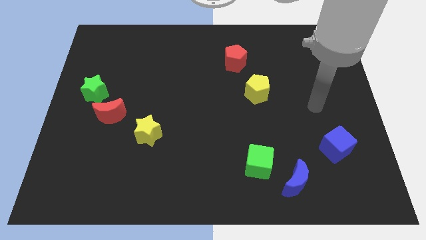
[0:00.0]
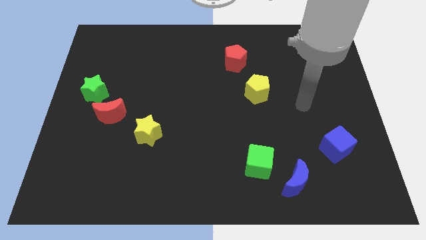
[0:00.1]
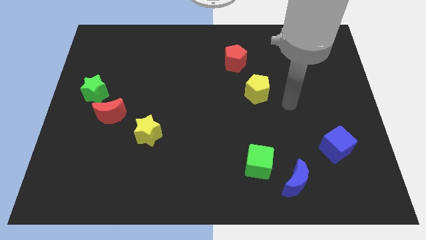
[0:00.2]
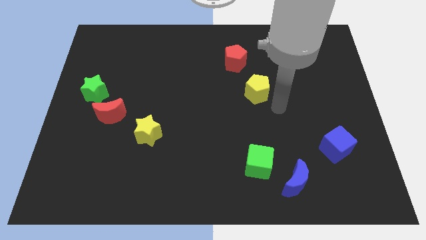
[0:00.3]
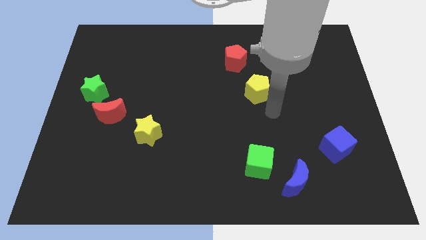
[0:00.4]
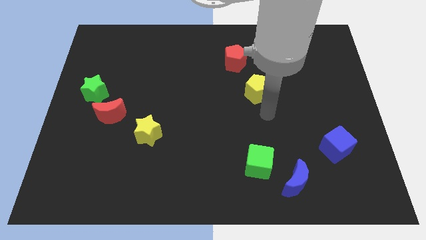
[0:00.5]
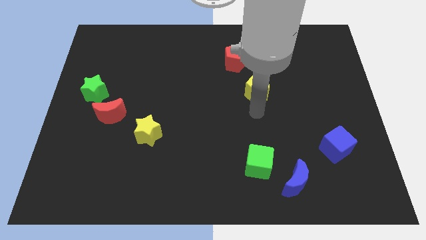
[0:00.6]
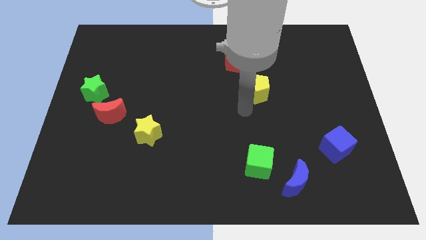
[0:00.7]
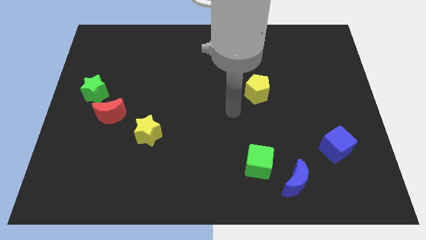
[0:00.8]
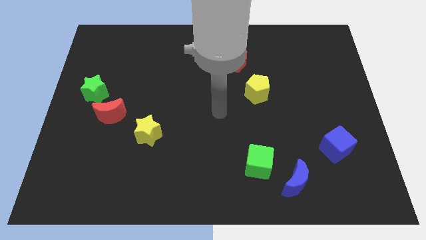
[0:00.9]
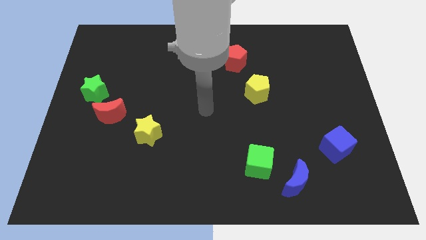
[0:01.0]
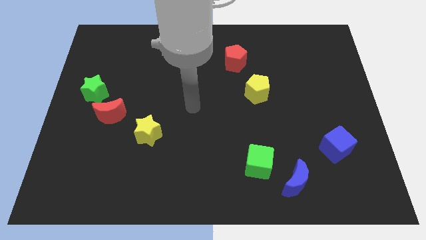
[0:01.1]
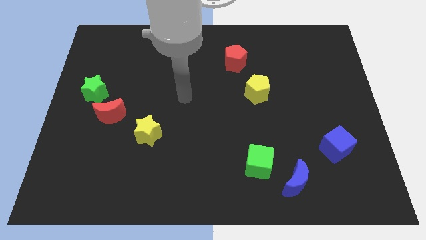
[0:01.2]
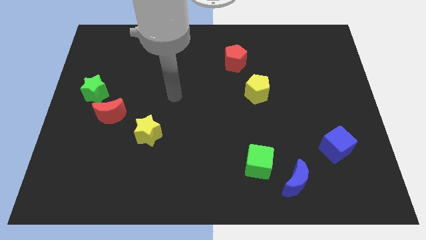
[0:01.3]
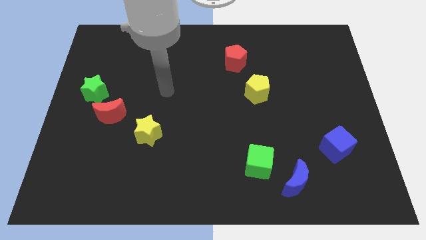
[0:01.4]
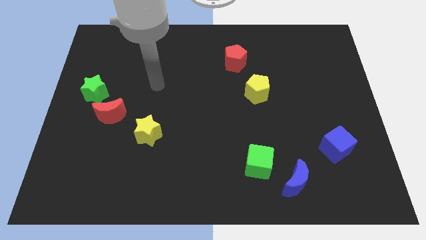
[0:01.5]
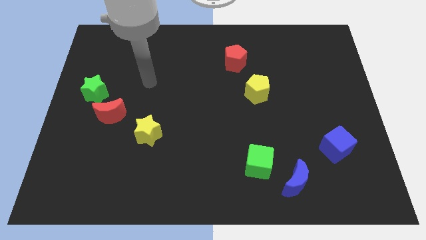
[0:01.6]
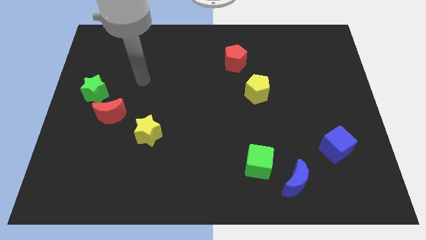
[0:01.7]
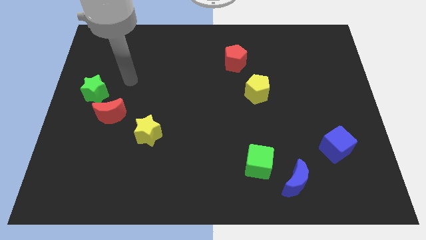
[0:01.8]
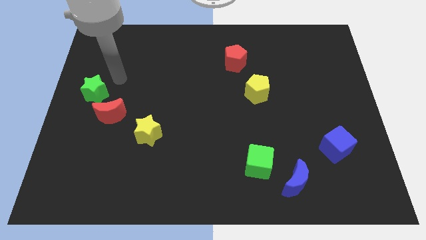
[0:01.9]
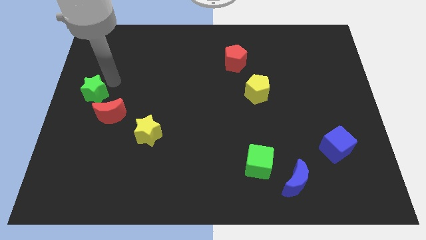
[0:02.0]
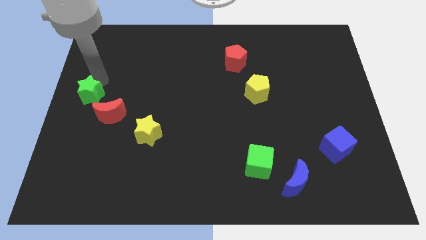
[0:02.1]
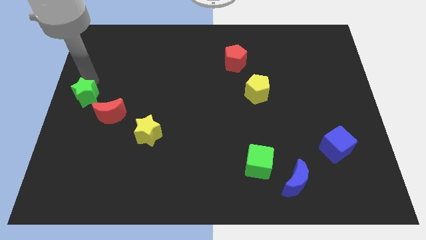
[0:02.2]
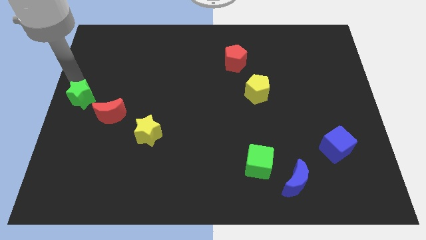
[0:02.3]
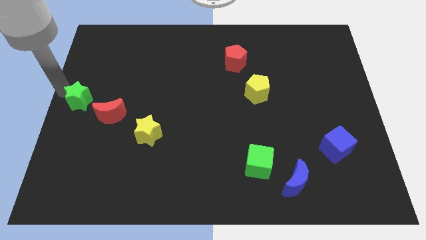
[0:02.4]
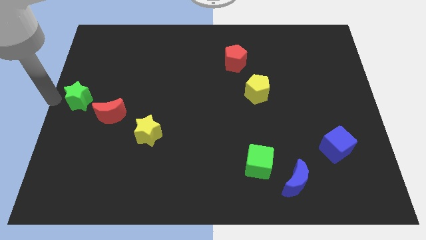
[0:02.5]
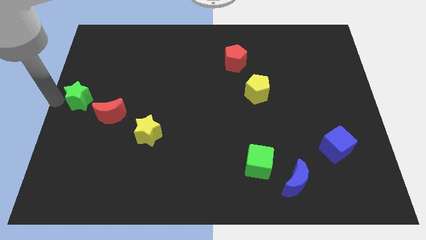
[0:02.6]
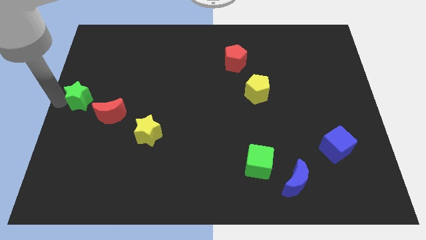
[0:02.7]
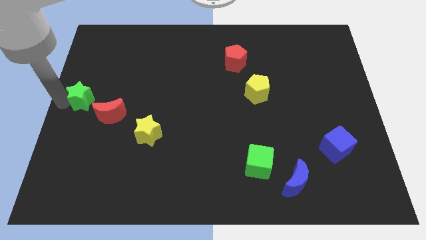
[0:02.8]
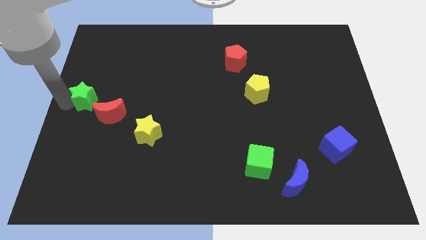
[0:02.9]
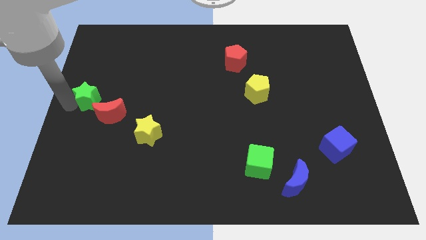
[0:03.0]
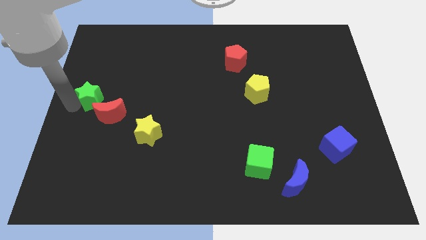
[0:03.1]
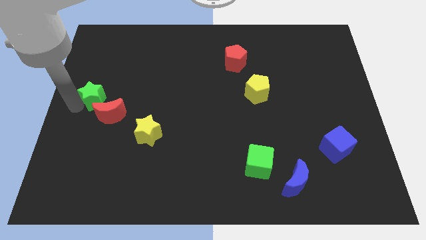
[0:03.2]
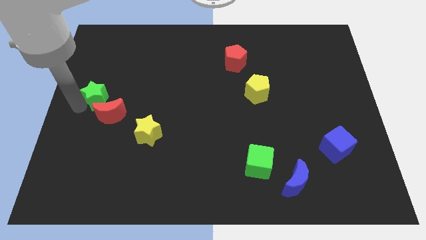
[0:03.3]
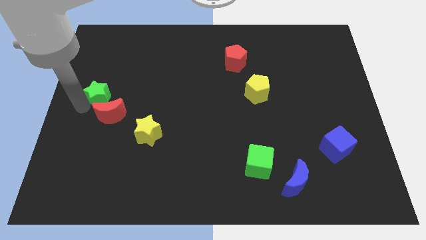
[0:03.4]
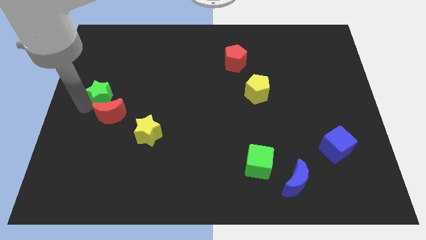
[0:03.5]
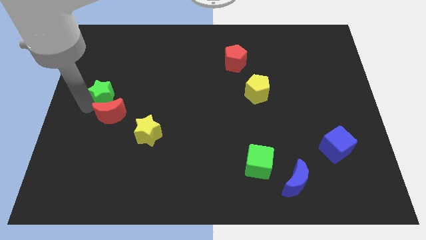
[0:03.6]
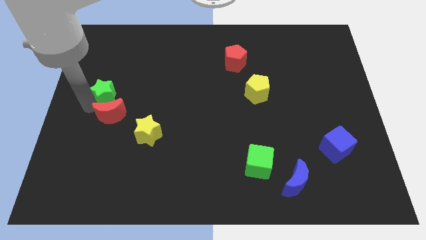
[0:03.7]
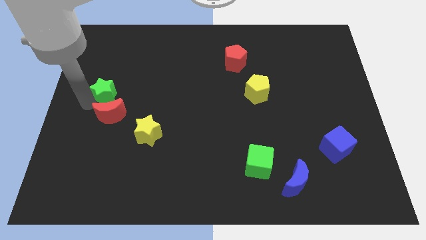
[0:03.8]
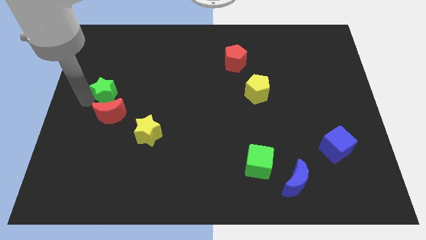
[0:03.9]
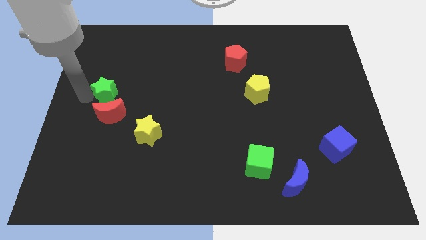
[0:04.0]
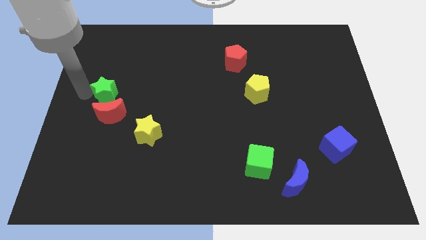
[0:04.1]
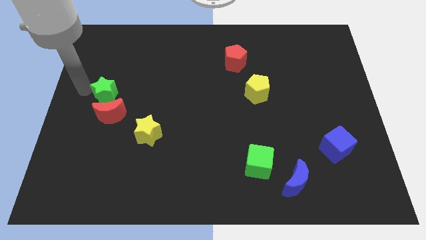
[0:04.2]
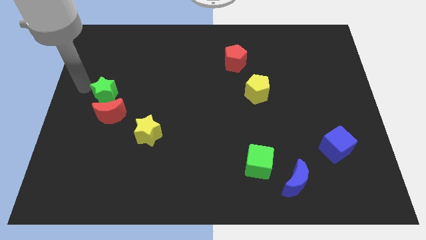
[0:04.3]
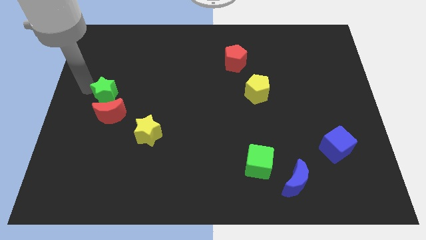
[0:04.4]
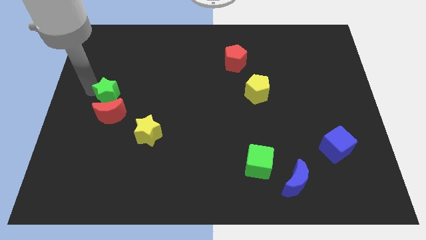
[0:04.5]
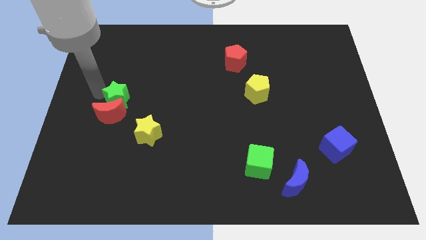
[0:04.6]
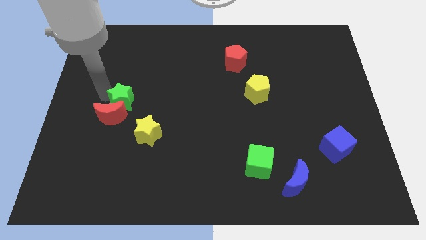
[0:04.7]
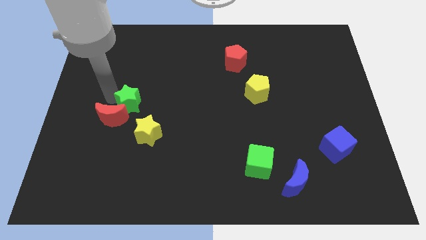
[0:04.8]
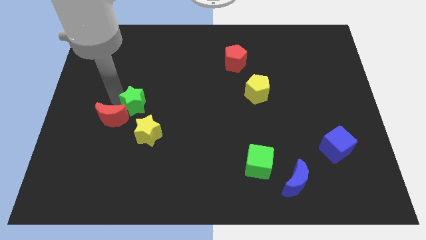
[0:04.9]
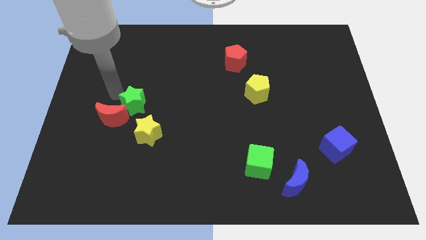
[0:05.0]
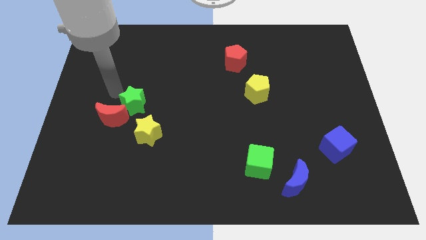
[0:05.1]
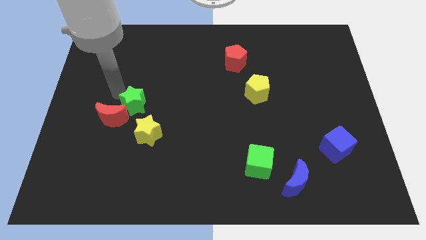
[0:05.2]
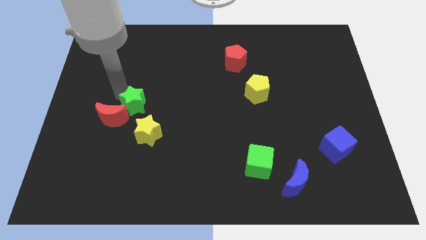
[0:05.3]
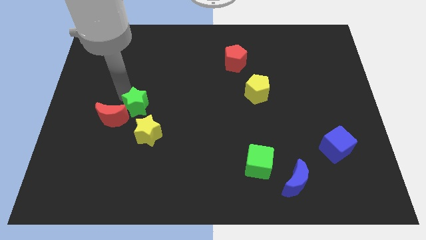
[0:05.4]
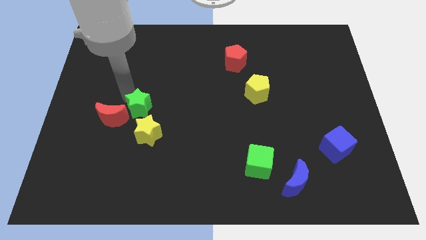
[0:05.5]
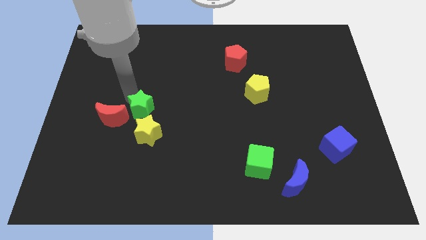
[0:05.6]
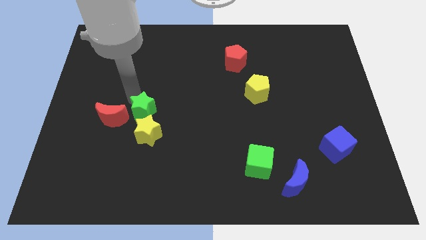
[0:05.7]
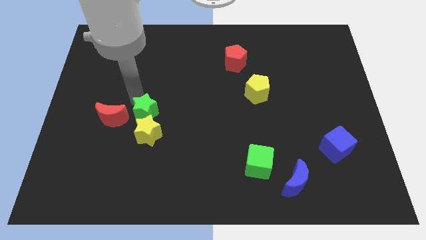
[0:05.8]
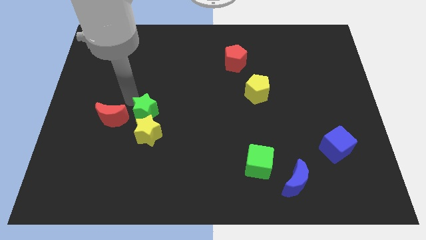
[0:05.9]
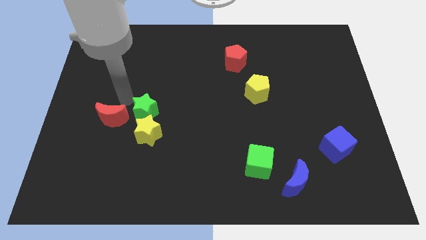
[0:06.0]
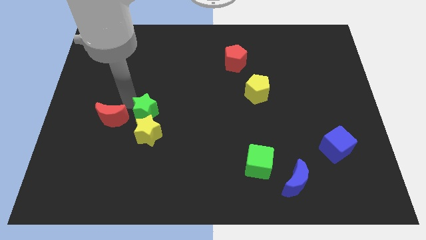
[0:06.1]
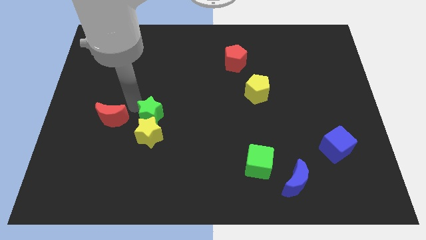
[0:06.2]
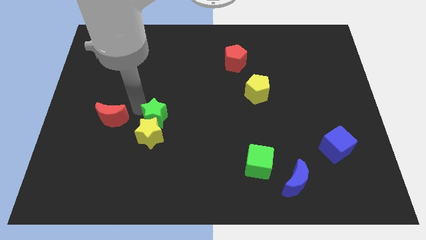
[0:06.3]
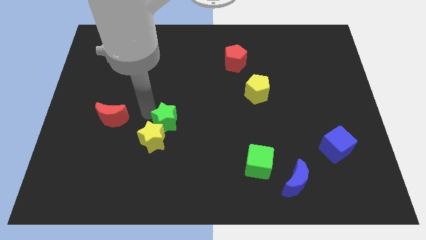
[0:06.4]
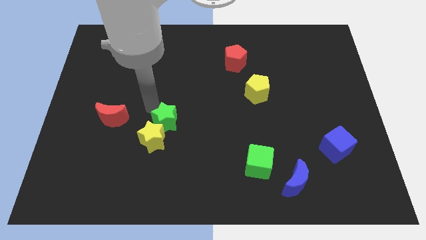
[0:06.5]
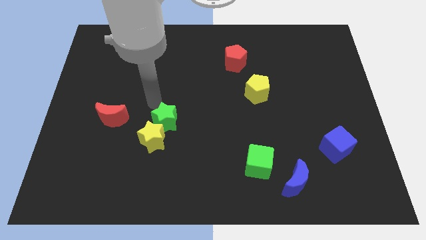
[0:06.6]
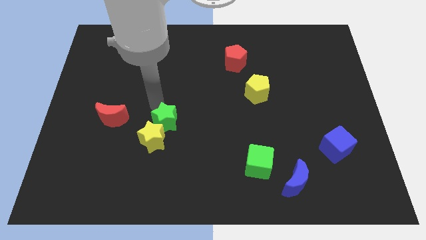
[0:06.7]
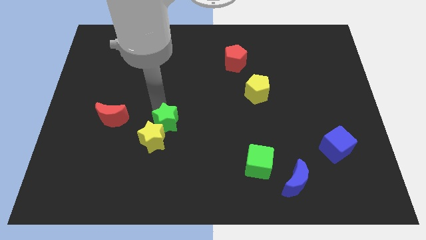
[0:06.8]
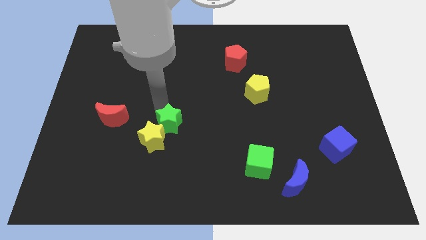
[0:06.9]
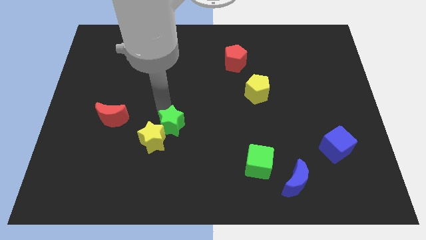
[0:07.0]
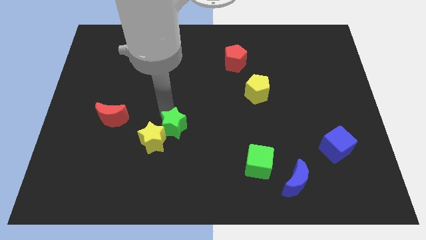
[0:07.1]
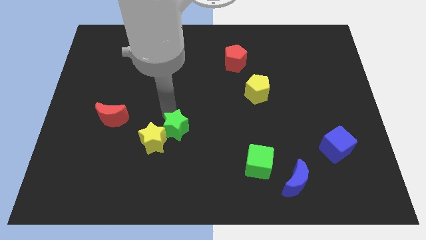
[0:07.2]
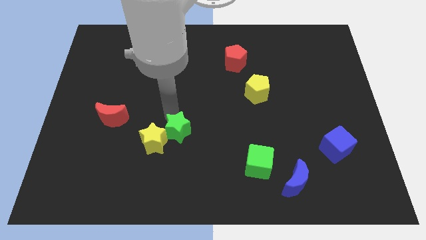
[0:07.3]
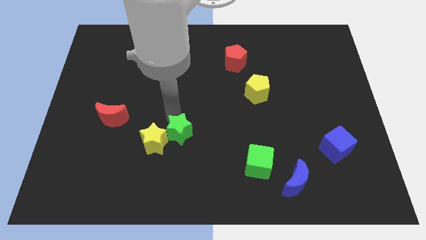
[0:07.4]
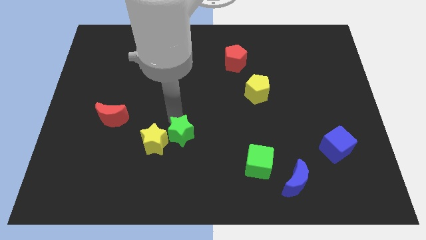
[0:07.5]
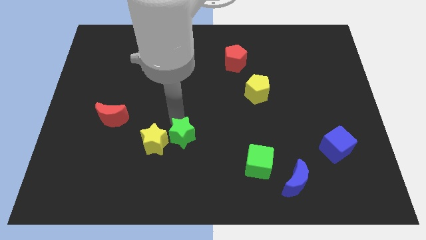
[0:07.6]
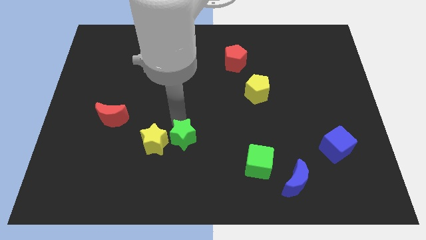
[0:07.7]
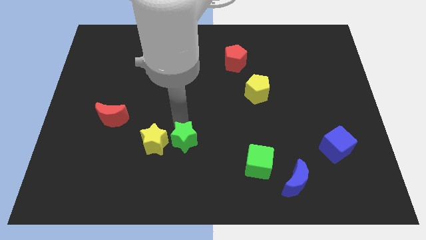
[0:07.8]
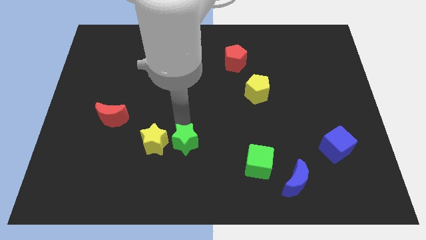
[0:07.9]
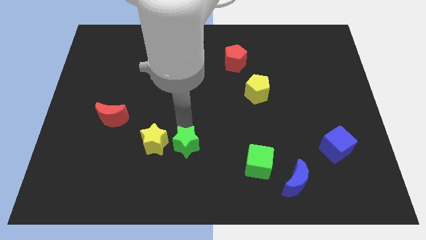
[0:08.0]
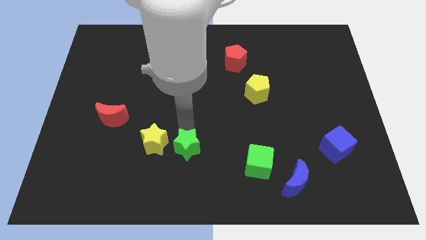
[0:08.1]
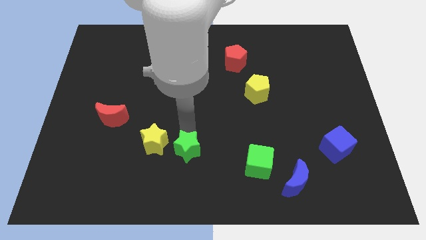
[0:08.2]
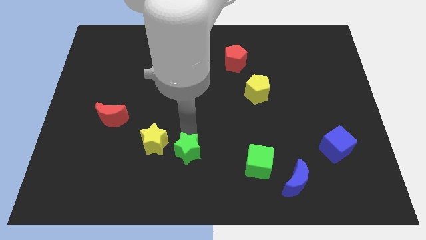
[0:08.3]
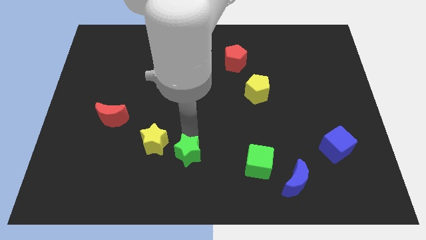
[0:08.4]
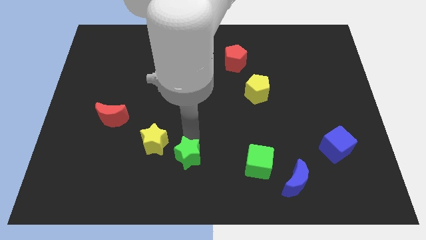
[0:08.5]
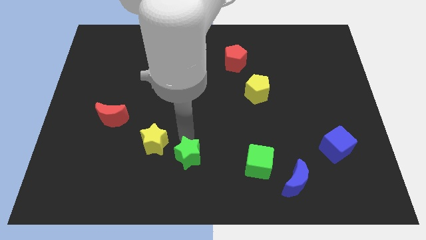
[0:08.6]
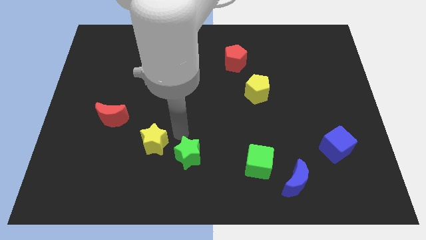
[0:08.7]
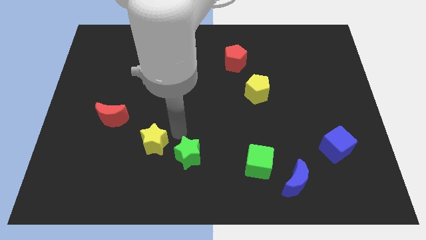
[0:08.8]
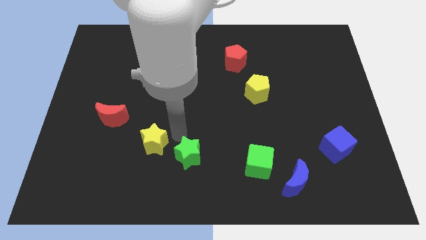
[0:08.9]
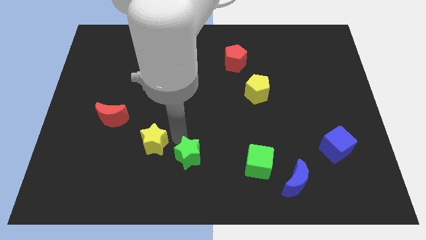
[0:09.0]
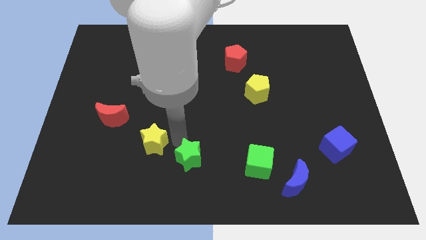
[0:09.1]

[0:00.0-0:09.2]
slide the green star to the bottom side
